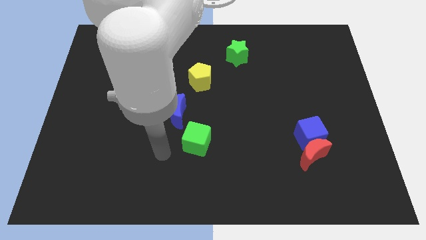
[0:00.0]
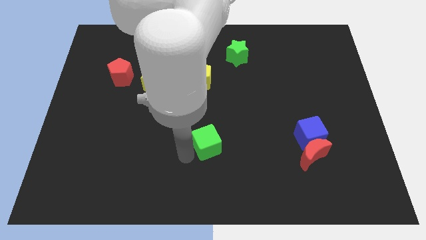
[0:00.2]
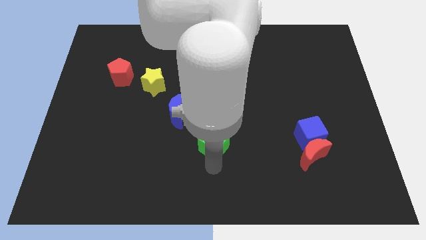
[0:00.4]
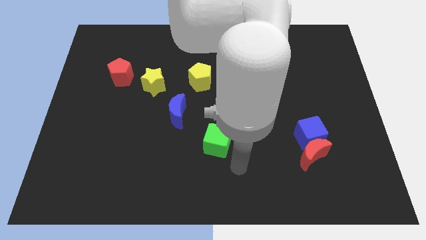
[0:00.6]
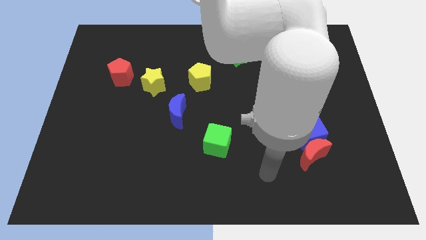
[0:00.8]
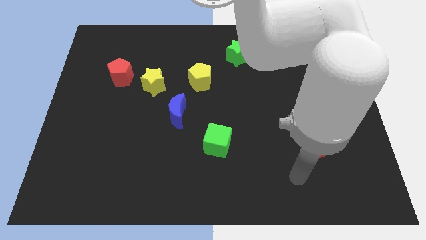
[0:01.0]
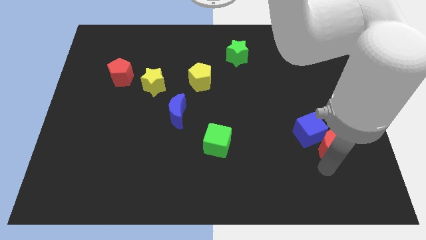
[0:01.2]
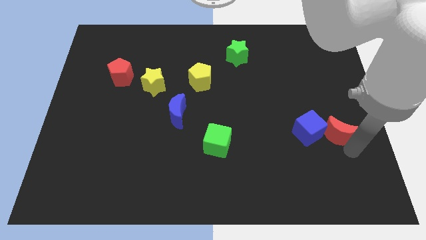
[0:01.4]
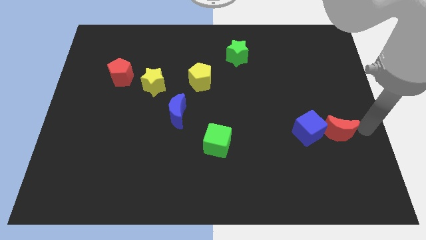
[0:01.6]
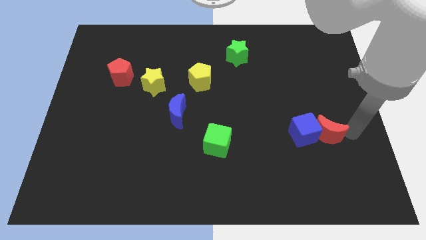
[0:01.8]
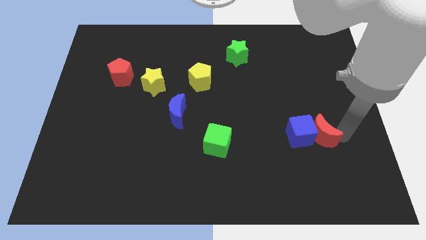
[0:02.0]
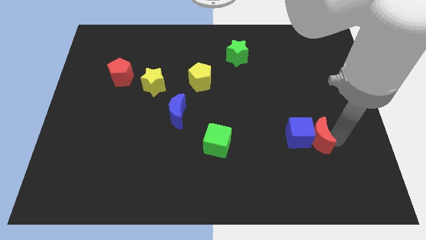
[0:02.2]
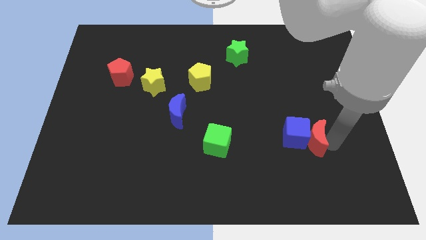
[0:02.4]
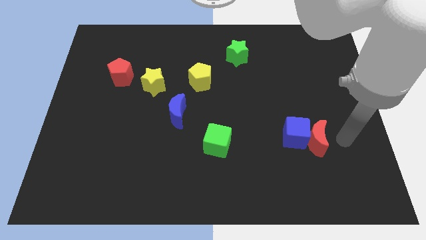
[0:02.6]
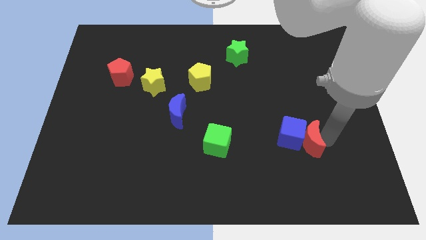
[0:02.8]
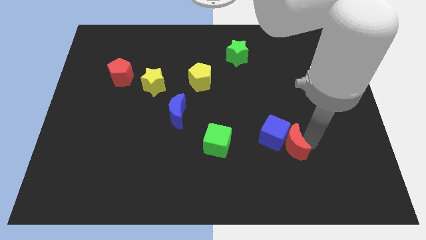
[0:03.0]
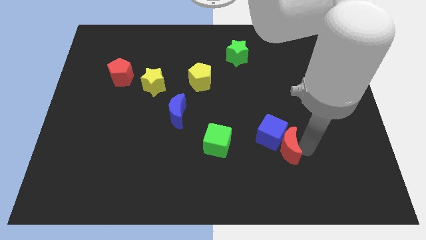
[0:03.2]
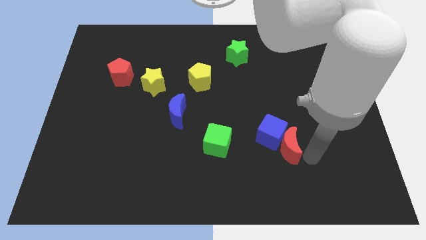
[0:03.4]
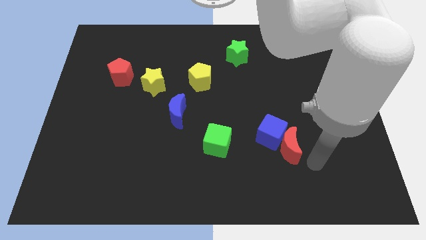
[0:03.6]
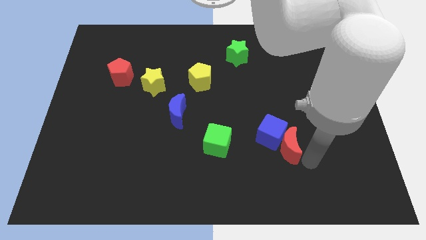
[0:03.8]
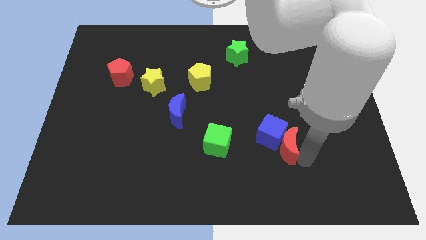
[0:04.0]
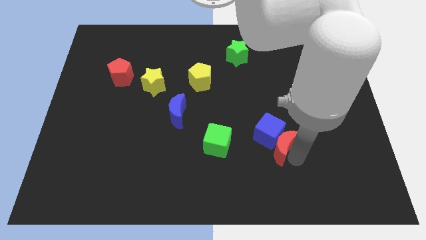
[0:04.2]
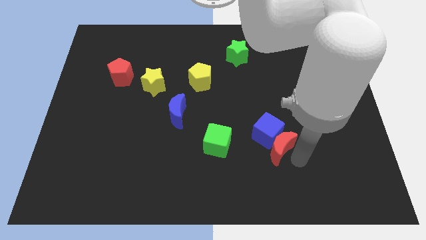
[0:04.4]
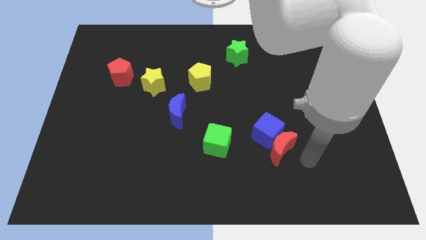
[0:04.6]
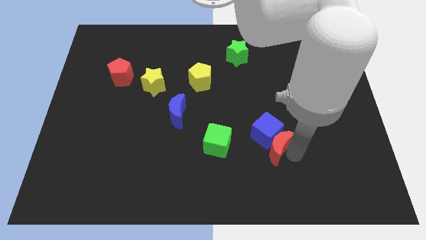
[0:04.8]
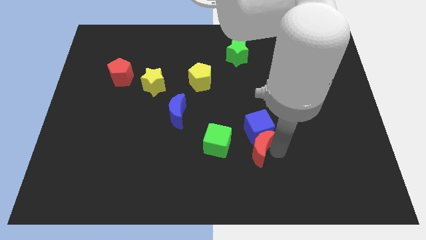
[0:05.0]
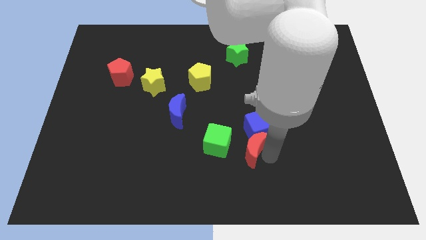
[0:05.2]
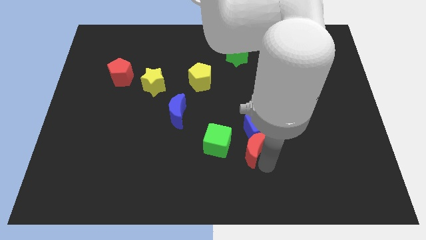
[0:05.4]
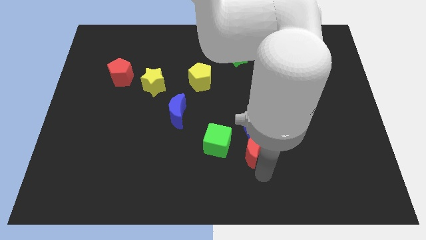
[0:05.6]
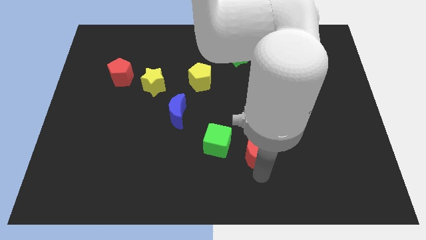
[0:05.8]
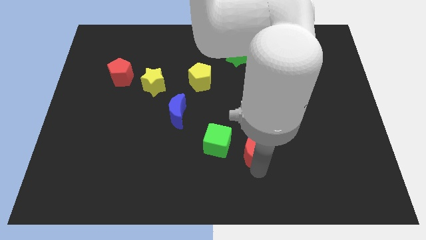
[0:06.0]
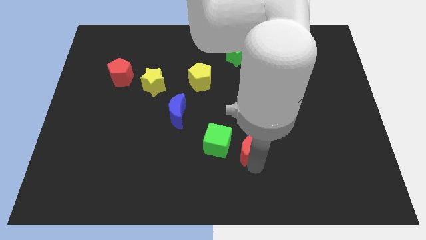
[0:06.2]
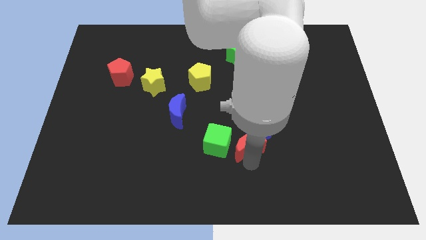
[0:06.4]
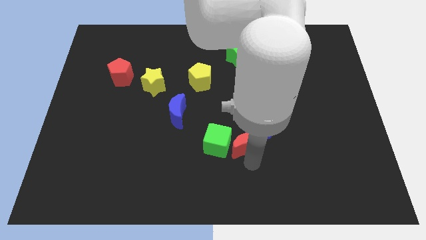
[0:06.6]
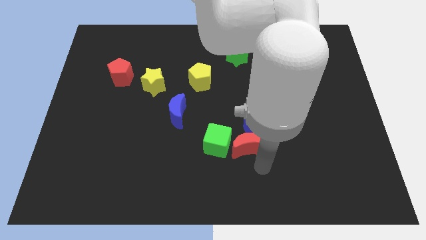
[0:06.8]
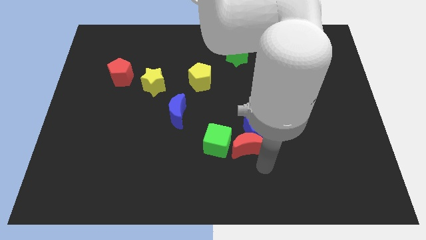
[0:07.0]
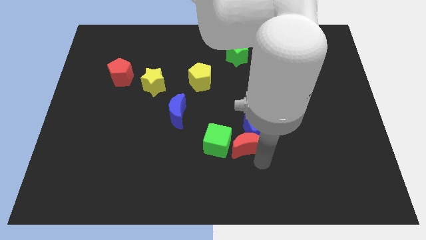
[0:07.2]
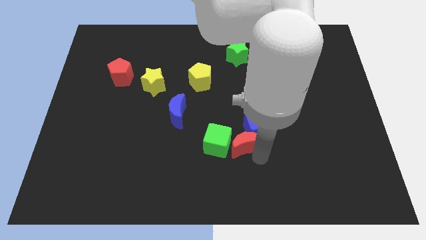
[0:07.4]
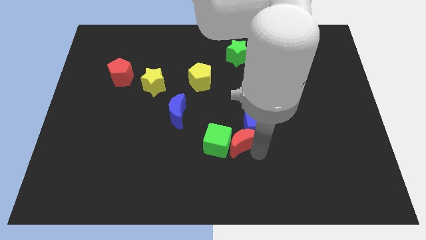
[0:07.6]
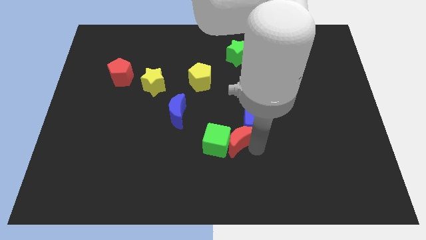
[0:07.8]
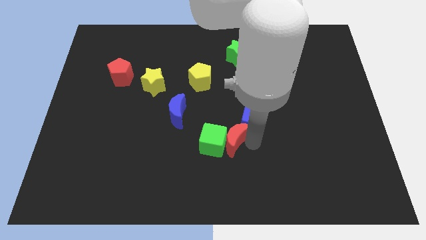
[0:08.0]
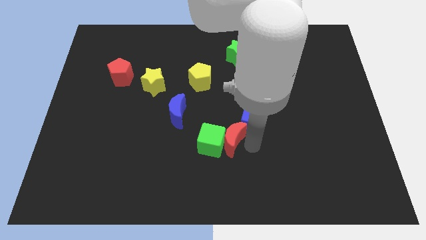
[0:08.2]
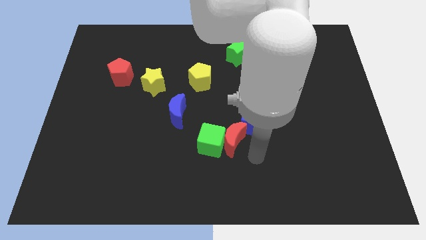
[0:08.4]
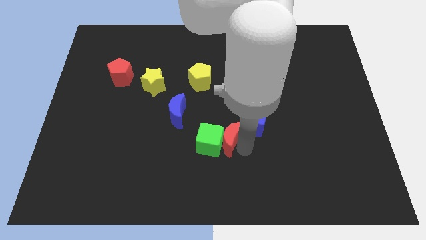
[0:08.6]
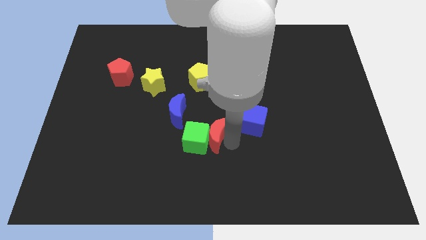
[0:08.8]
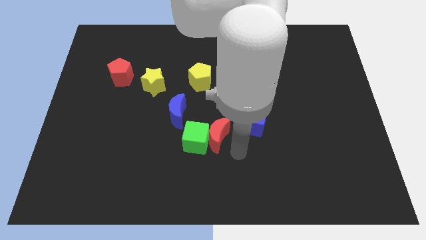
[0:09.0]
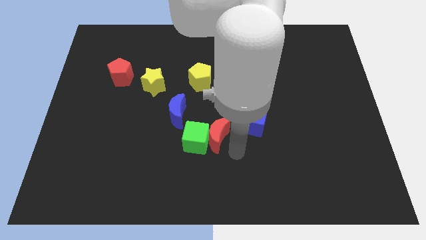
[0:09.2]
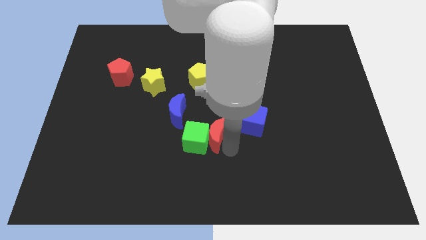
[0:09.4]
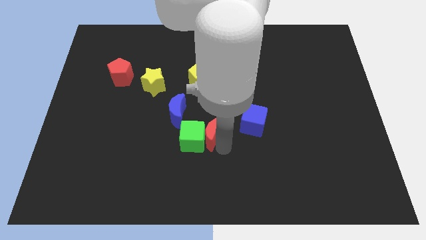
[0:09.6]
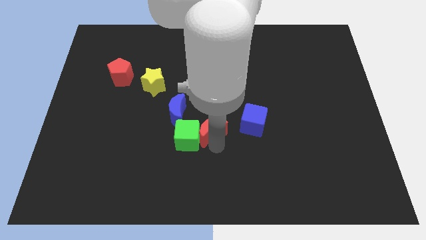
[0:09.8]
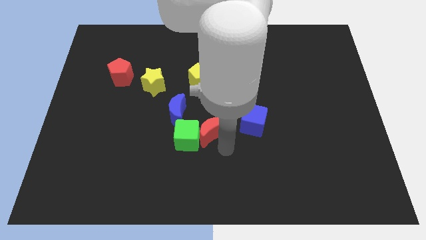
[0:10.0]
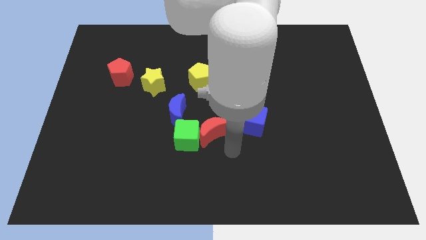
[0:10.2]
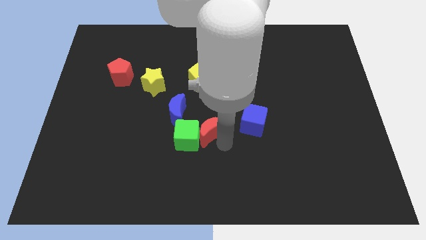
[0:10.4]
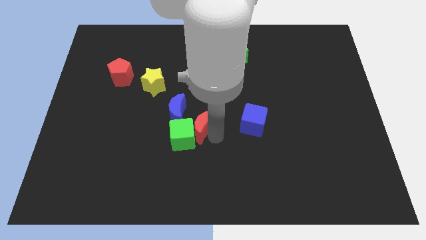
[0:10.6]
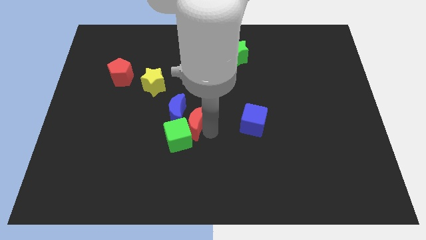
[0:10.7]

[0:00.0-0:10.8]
put the red moon to the blue moon

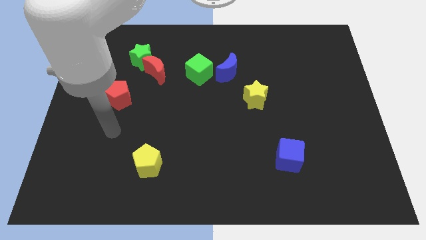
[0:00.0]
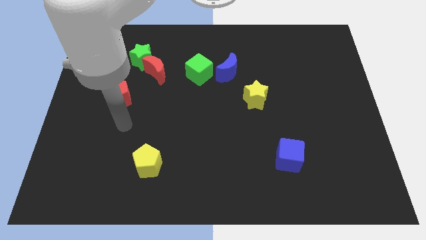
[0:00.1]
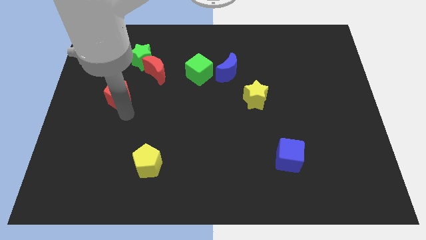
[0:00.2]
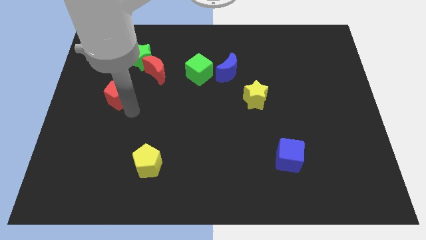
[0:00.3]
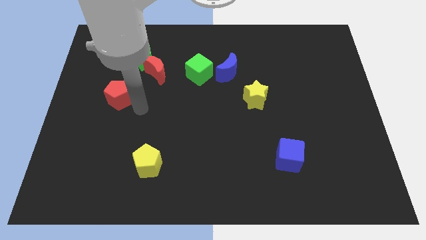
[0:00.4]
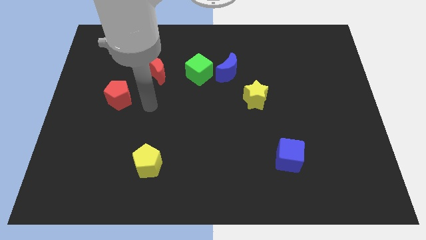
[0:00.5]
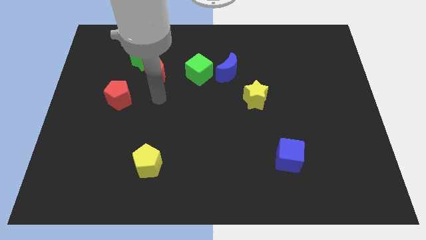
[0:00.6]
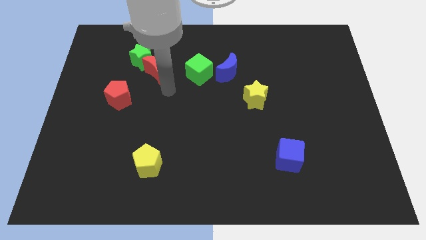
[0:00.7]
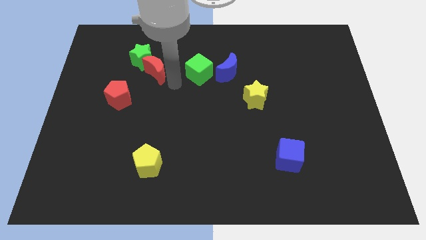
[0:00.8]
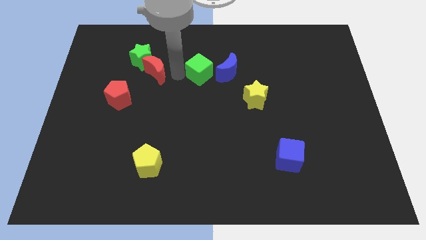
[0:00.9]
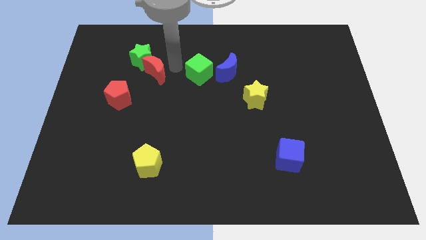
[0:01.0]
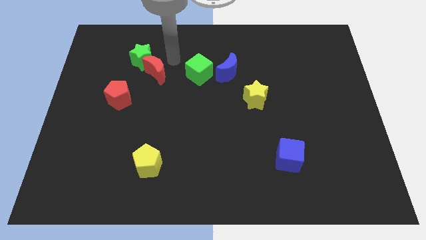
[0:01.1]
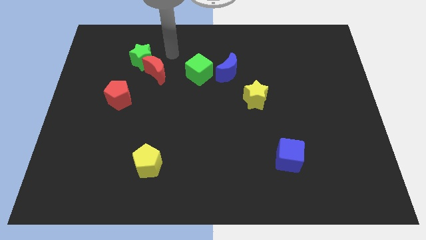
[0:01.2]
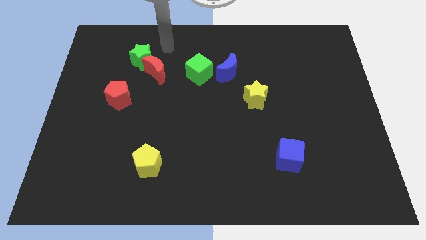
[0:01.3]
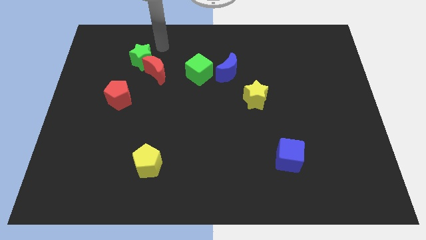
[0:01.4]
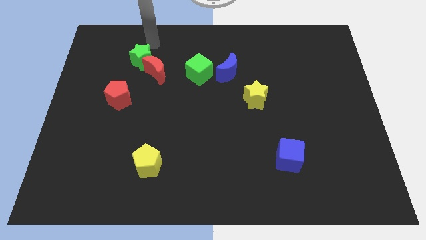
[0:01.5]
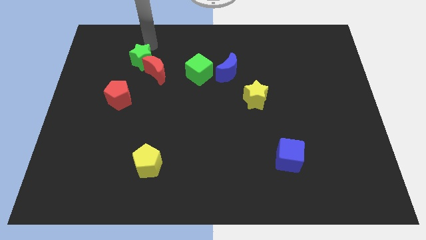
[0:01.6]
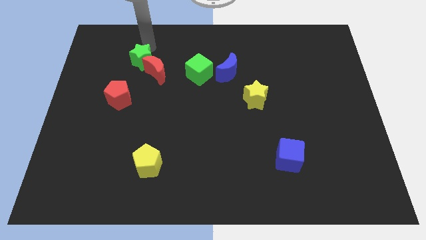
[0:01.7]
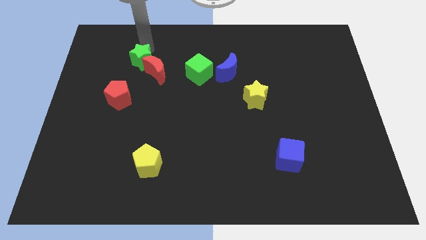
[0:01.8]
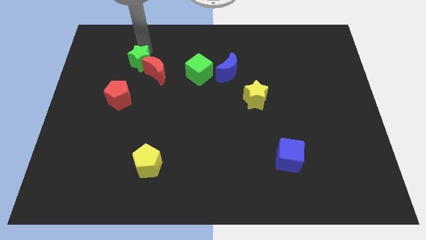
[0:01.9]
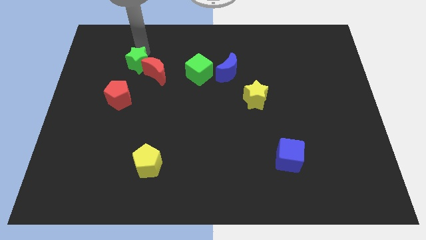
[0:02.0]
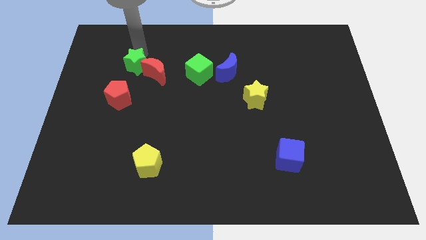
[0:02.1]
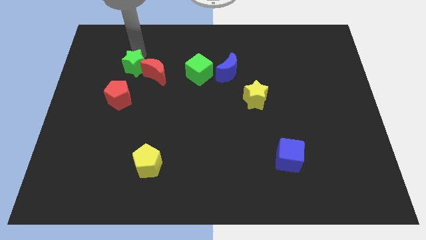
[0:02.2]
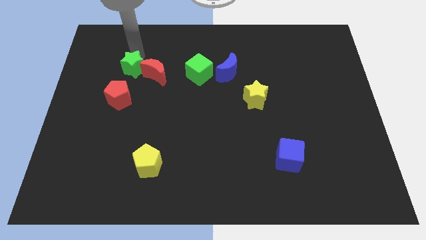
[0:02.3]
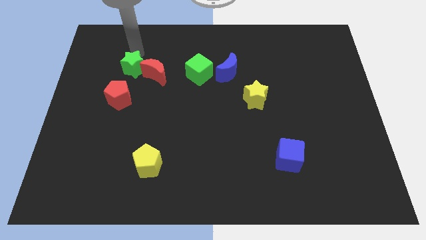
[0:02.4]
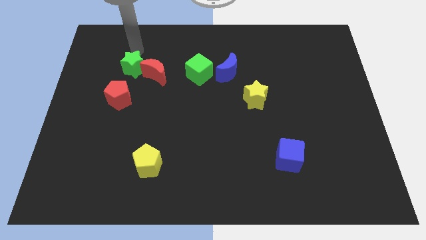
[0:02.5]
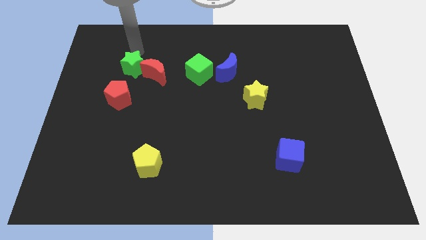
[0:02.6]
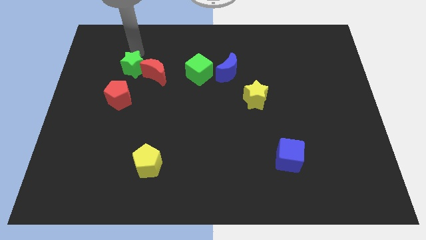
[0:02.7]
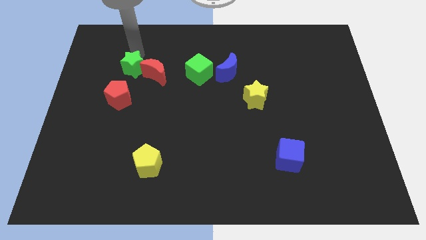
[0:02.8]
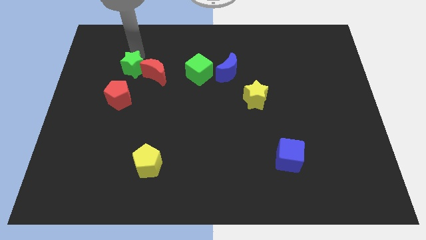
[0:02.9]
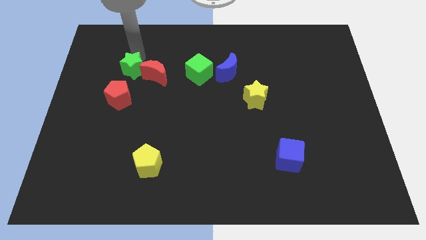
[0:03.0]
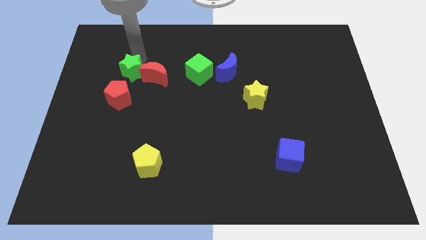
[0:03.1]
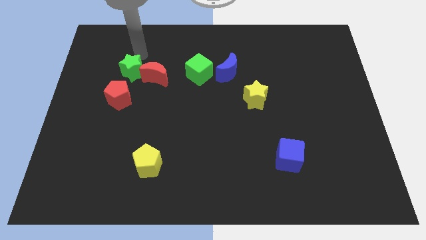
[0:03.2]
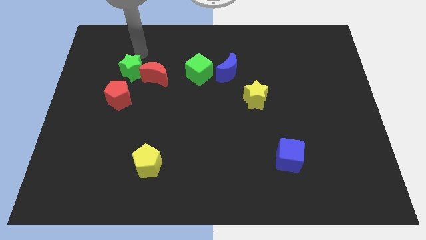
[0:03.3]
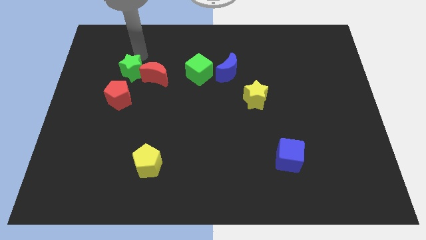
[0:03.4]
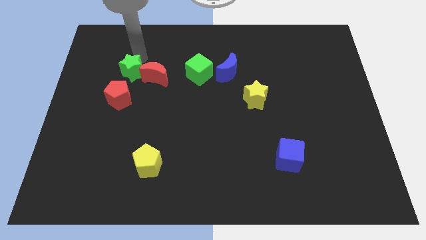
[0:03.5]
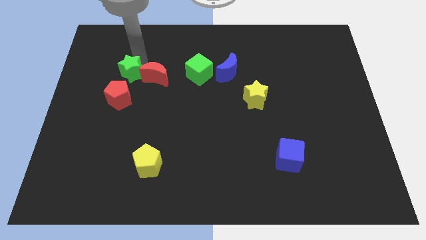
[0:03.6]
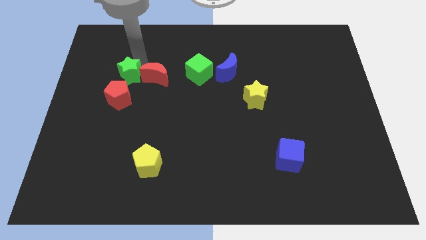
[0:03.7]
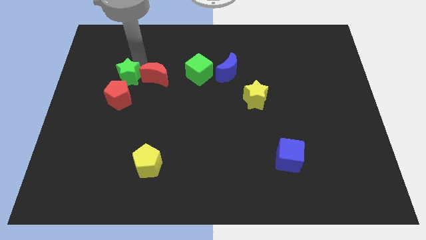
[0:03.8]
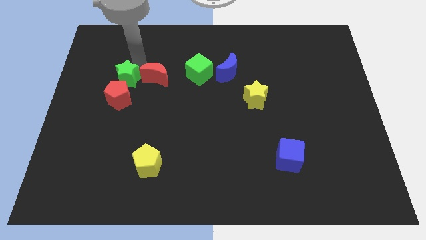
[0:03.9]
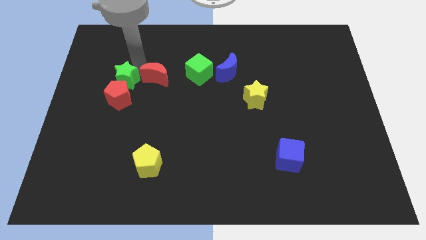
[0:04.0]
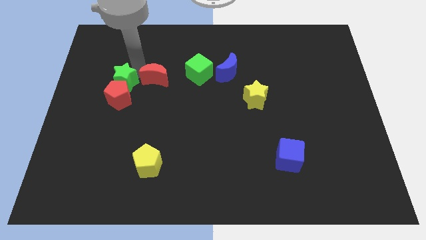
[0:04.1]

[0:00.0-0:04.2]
slide the green star close to the red pentagon
